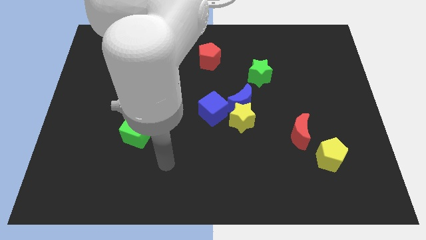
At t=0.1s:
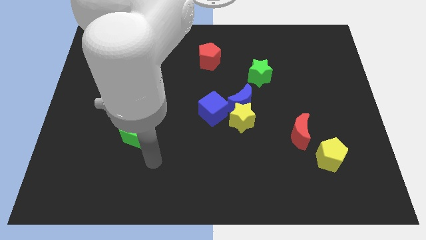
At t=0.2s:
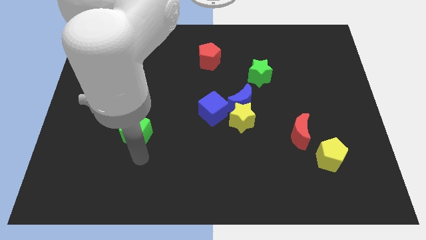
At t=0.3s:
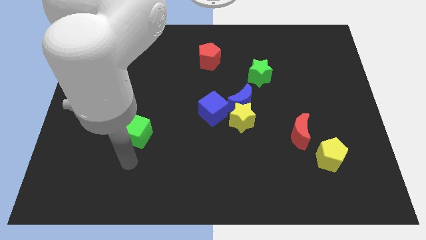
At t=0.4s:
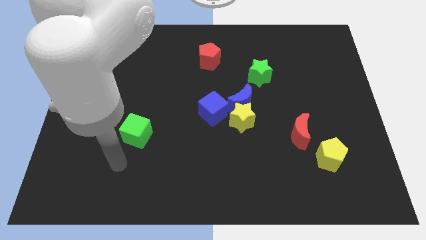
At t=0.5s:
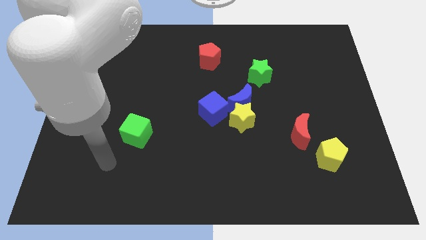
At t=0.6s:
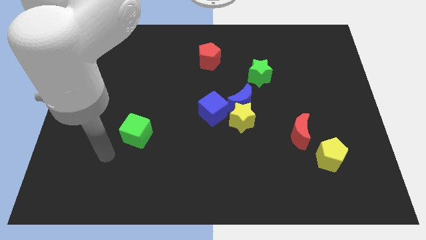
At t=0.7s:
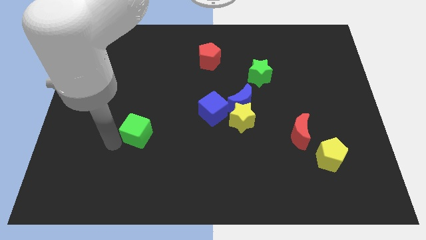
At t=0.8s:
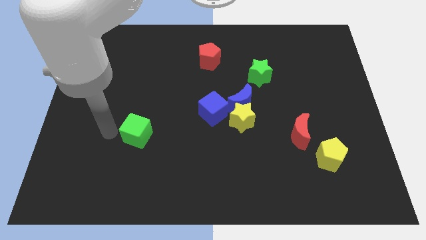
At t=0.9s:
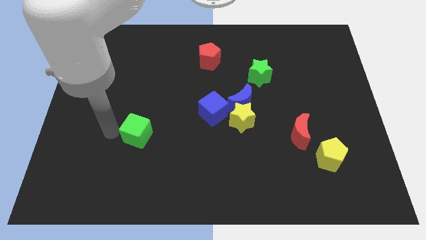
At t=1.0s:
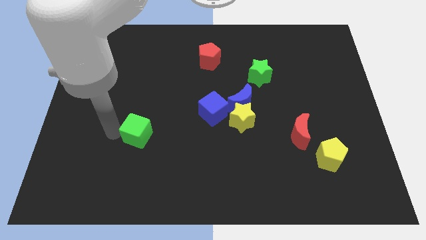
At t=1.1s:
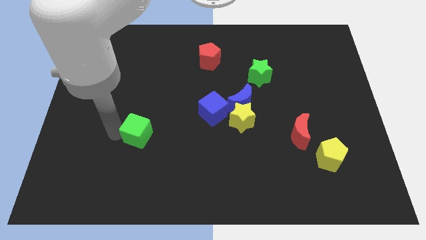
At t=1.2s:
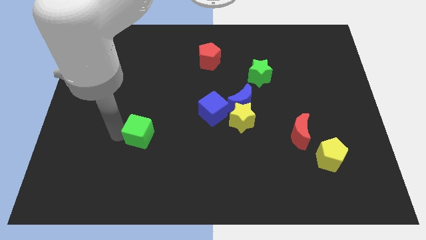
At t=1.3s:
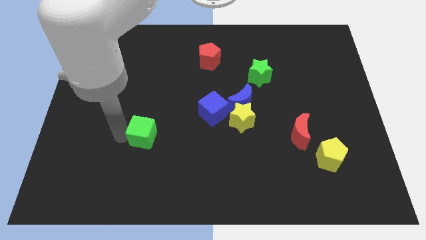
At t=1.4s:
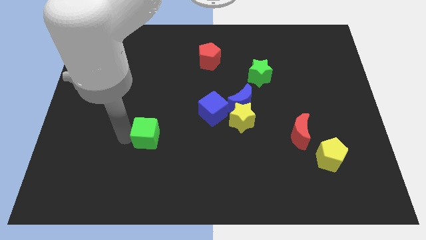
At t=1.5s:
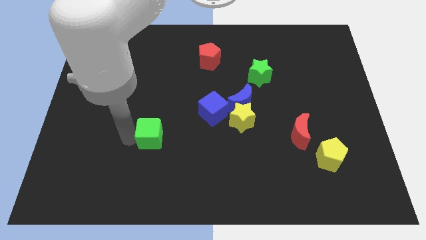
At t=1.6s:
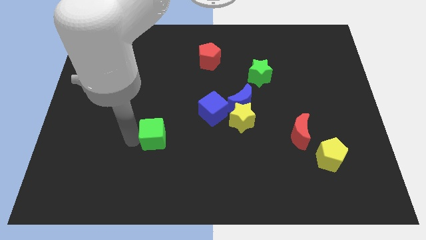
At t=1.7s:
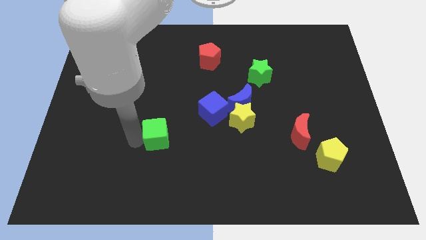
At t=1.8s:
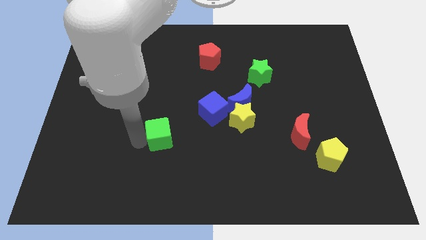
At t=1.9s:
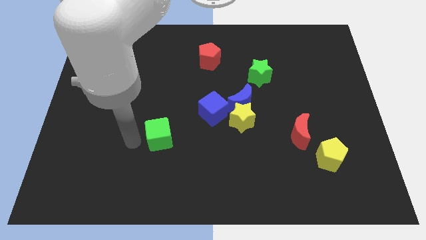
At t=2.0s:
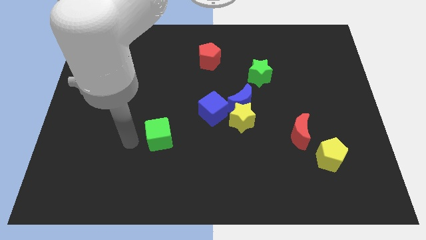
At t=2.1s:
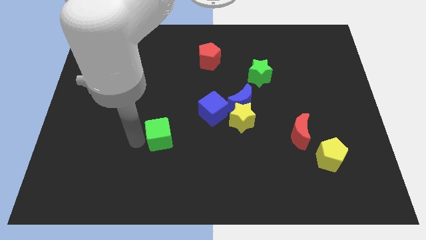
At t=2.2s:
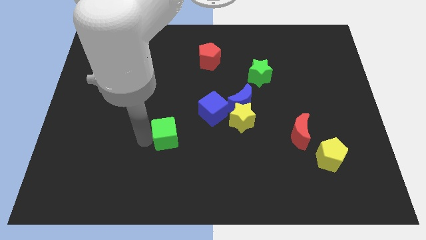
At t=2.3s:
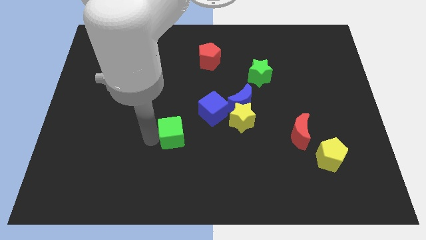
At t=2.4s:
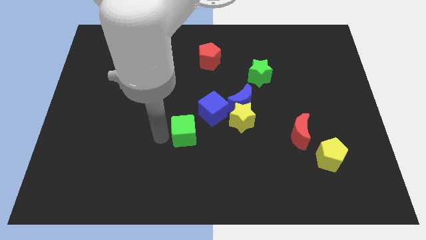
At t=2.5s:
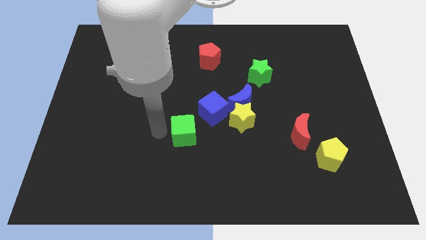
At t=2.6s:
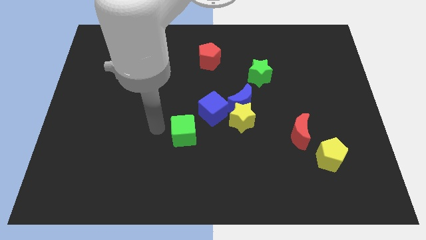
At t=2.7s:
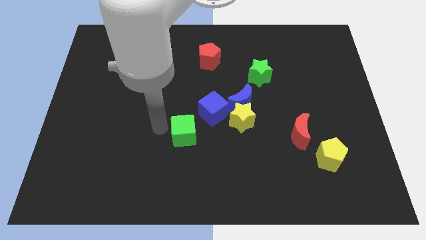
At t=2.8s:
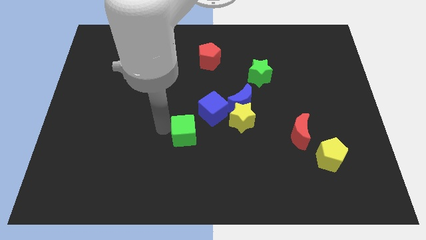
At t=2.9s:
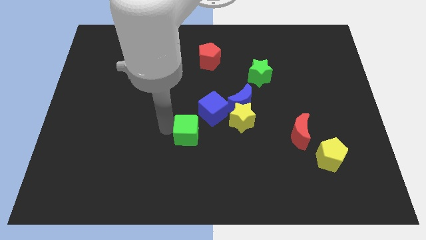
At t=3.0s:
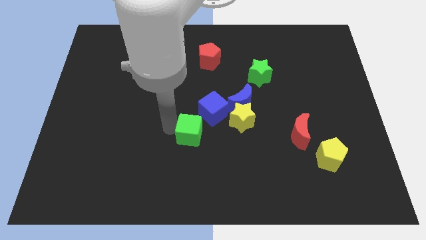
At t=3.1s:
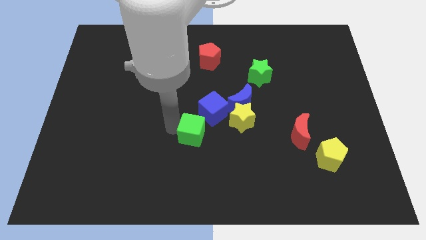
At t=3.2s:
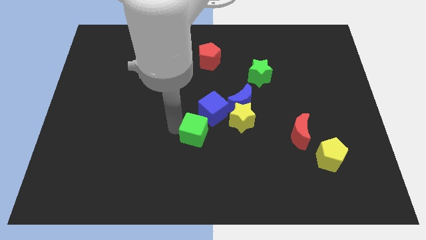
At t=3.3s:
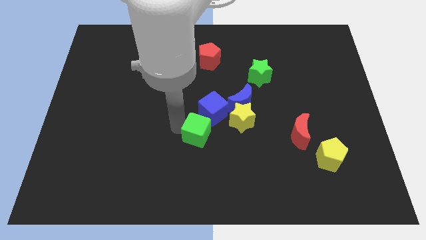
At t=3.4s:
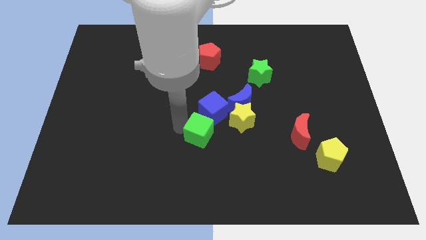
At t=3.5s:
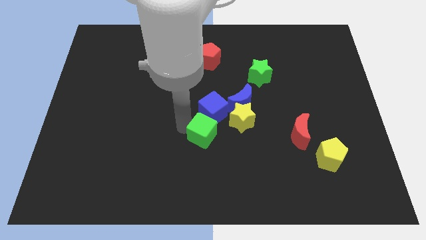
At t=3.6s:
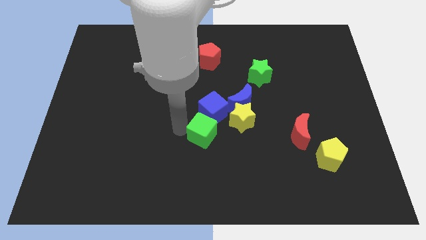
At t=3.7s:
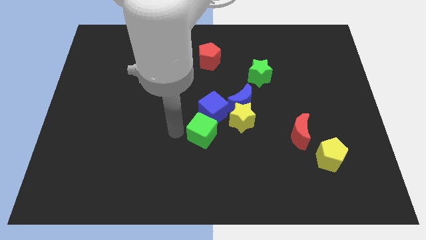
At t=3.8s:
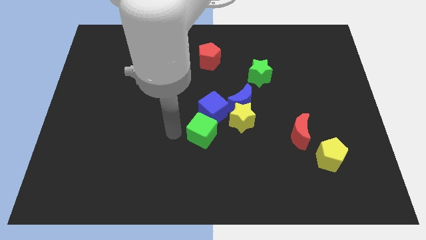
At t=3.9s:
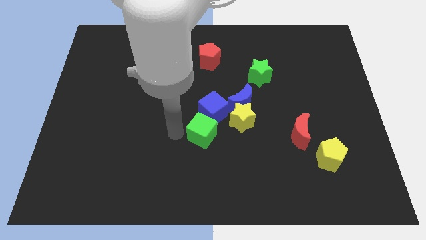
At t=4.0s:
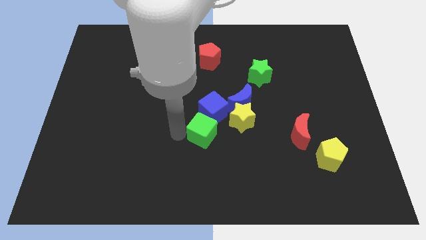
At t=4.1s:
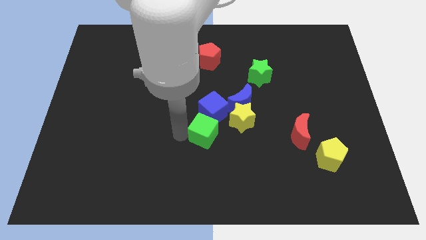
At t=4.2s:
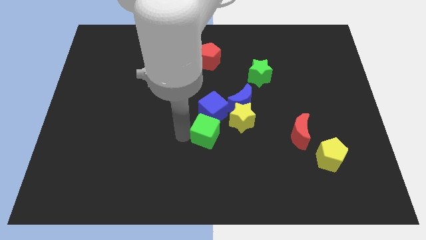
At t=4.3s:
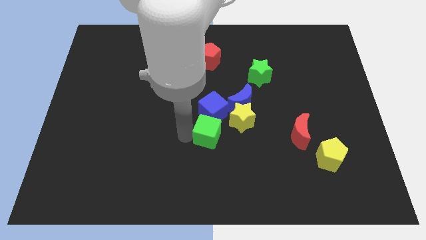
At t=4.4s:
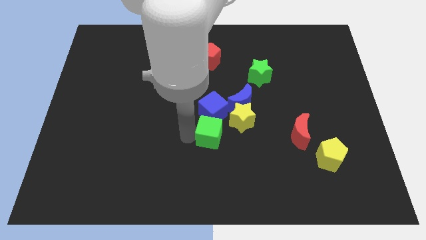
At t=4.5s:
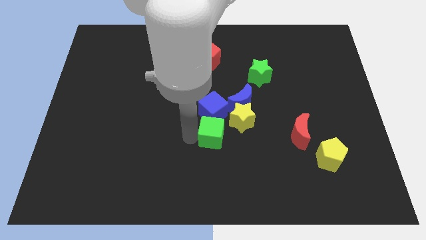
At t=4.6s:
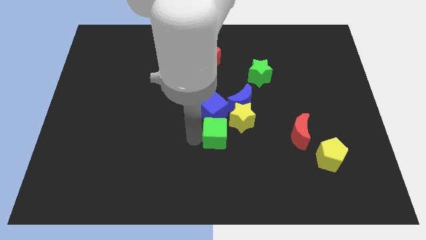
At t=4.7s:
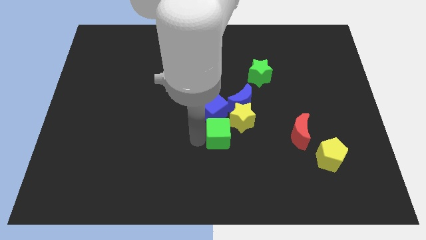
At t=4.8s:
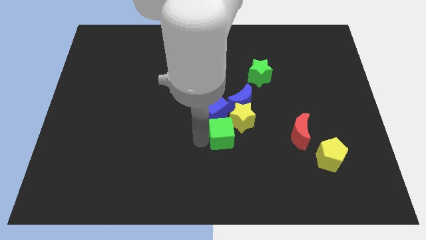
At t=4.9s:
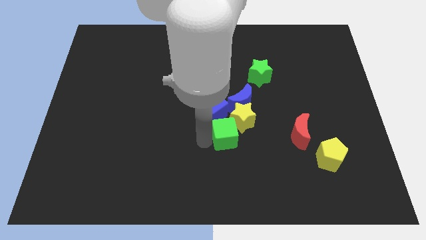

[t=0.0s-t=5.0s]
slide the green cube towards the yellow star

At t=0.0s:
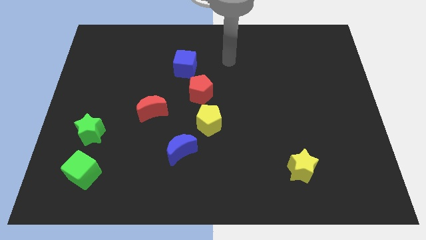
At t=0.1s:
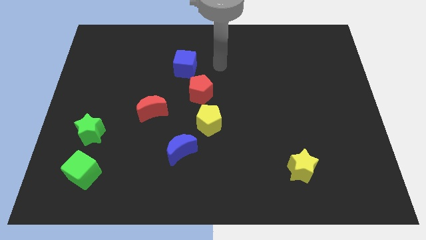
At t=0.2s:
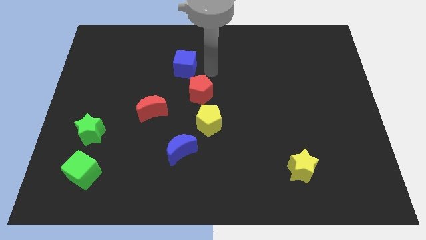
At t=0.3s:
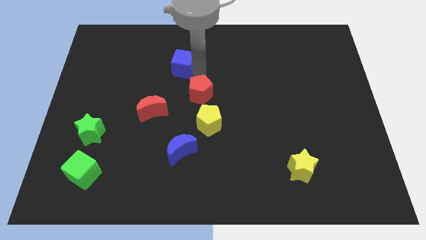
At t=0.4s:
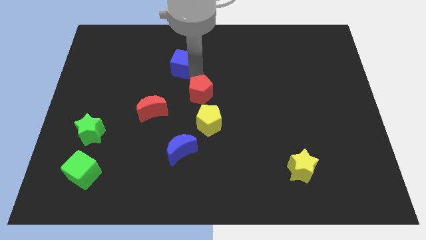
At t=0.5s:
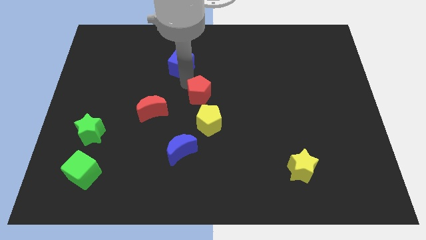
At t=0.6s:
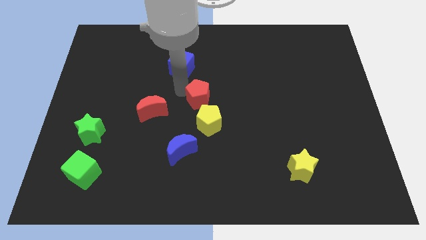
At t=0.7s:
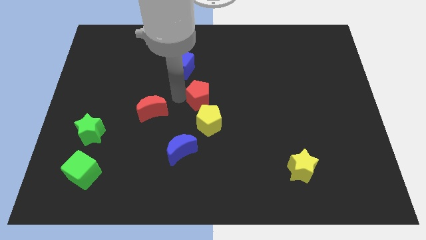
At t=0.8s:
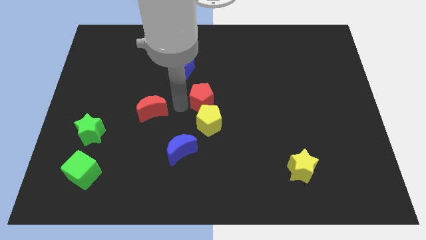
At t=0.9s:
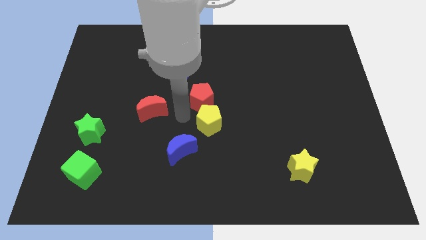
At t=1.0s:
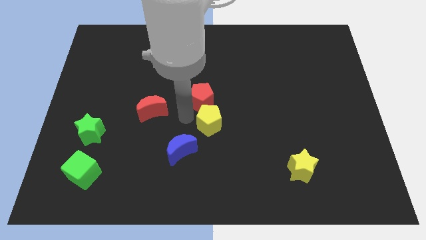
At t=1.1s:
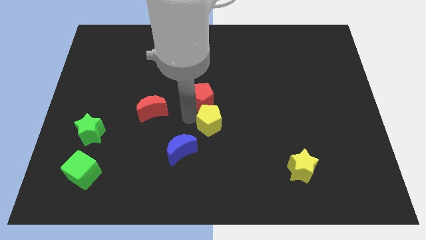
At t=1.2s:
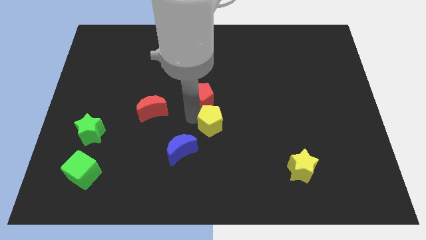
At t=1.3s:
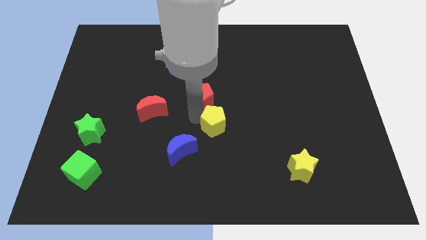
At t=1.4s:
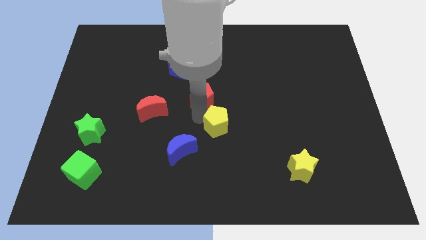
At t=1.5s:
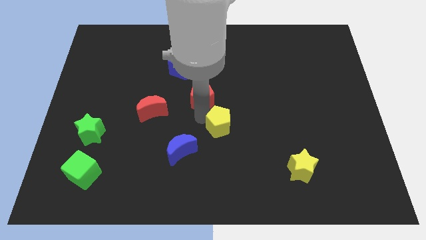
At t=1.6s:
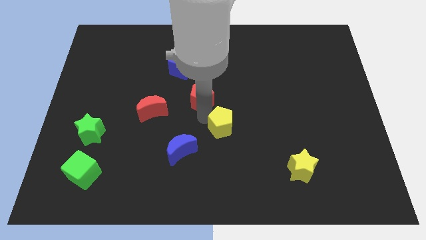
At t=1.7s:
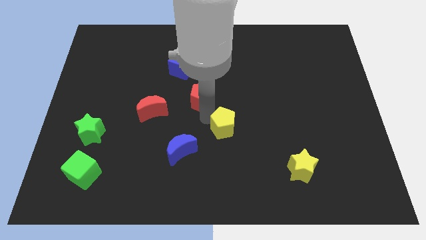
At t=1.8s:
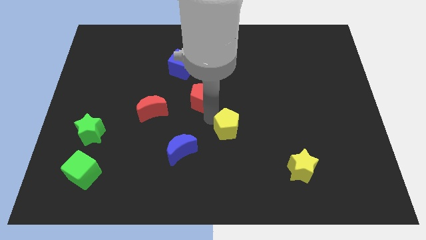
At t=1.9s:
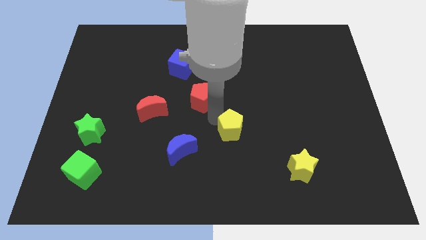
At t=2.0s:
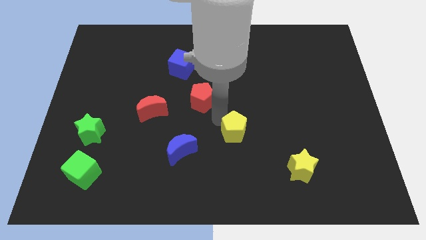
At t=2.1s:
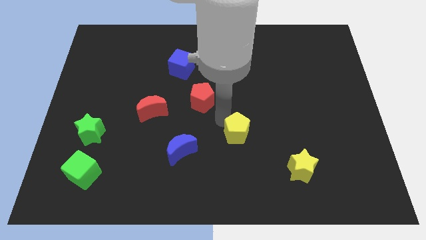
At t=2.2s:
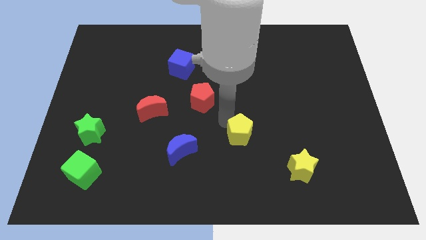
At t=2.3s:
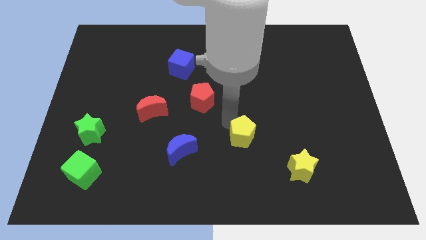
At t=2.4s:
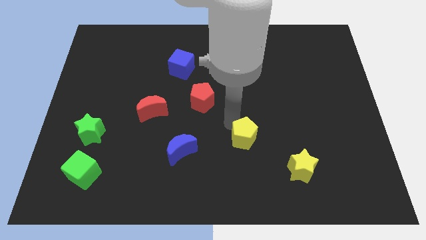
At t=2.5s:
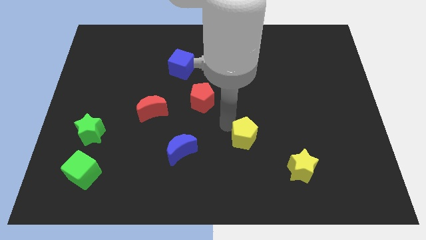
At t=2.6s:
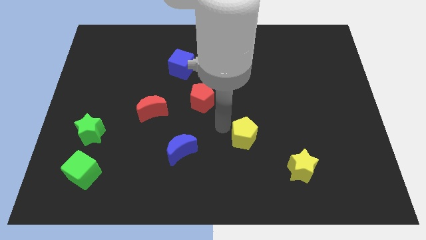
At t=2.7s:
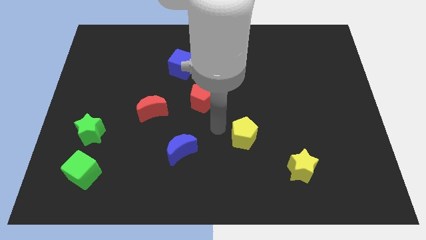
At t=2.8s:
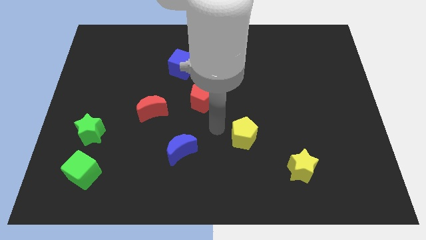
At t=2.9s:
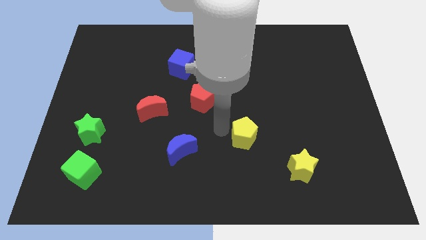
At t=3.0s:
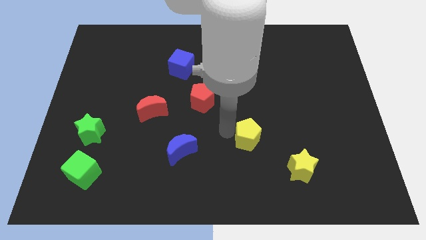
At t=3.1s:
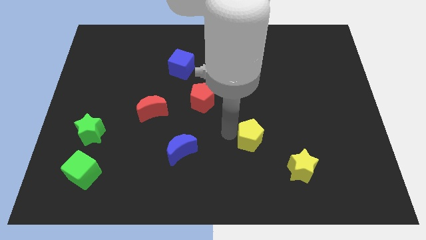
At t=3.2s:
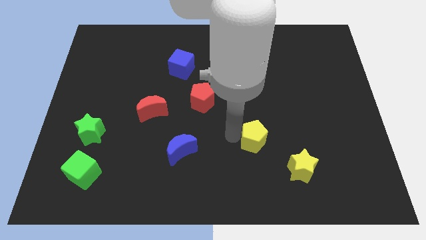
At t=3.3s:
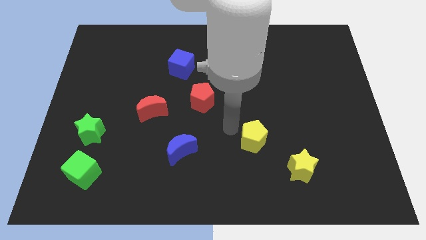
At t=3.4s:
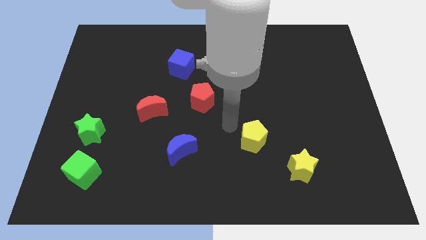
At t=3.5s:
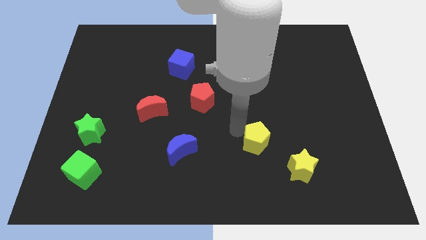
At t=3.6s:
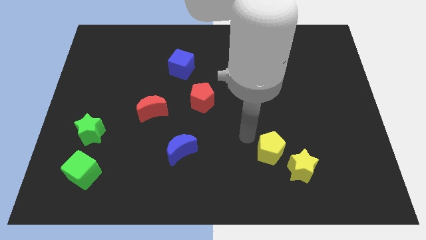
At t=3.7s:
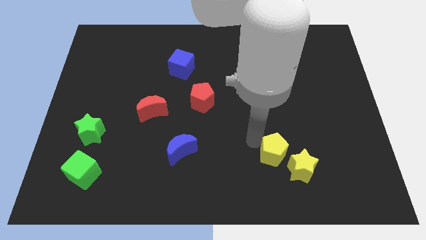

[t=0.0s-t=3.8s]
move the yellow pentagon to the yellow star
